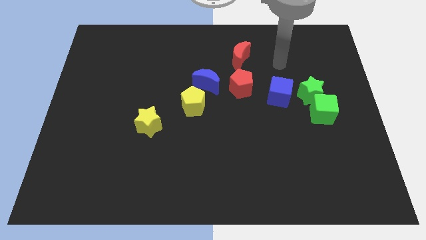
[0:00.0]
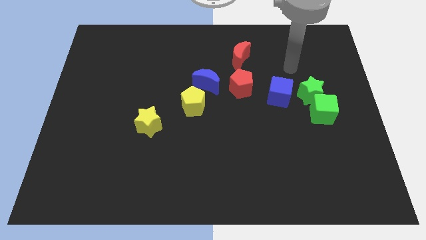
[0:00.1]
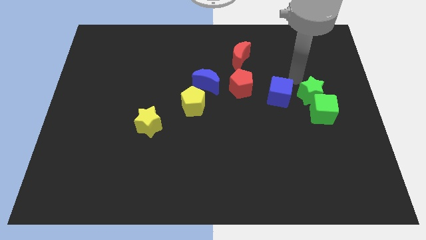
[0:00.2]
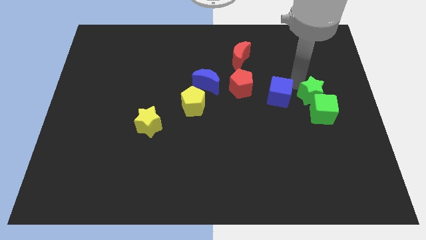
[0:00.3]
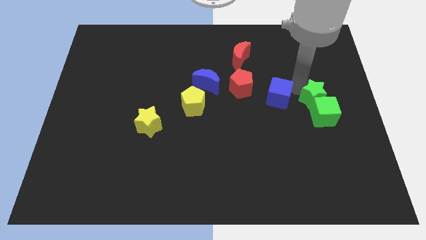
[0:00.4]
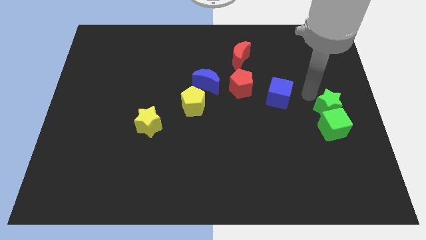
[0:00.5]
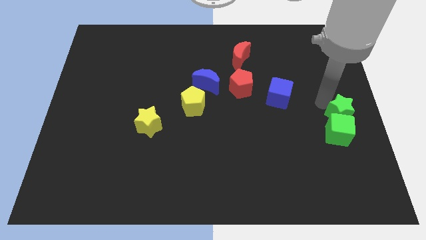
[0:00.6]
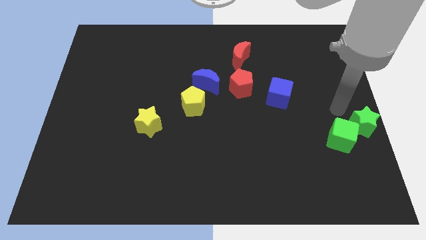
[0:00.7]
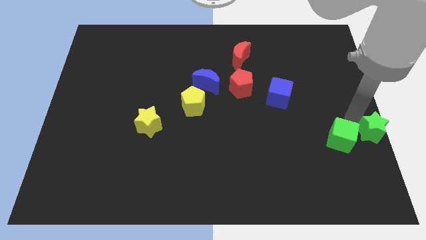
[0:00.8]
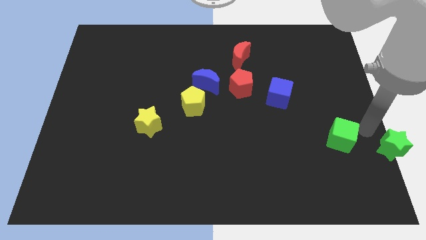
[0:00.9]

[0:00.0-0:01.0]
move the green cube away from the green star

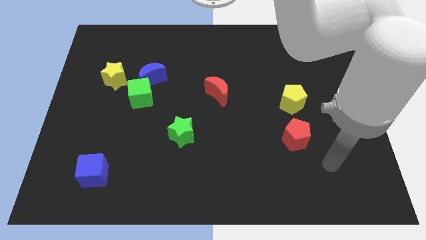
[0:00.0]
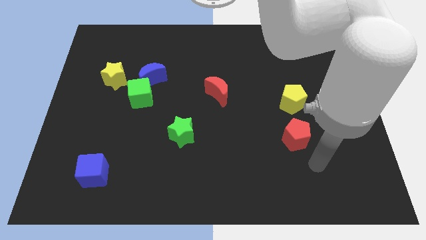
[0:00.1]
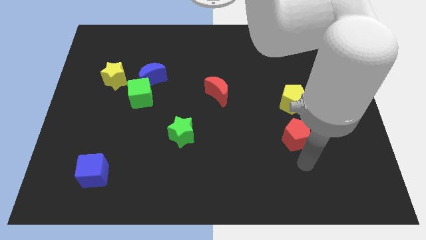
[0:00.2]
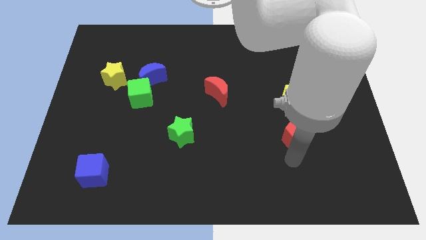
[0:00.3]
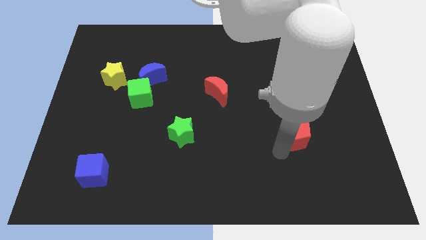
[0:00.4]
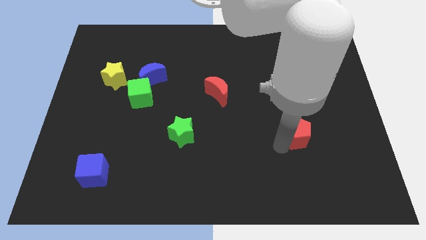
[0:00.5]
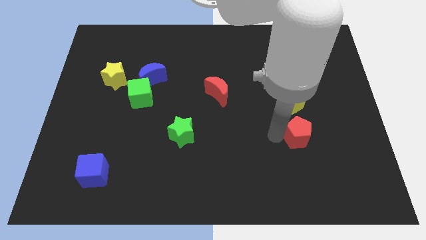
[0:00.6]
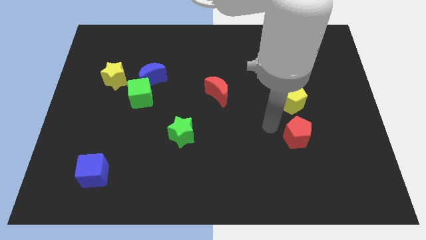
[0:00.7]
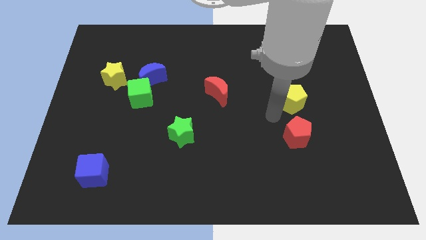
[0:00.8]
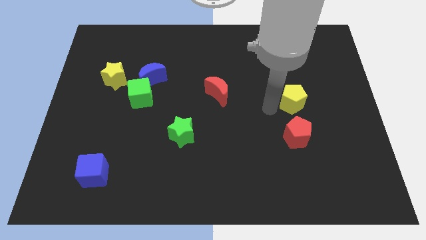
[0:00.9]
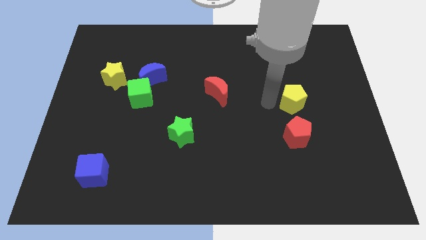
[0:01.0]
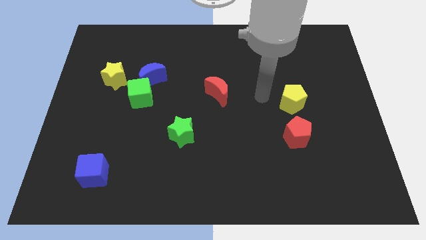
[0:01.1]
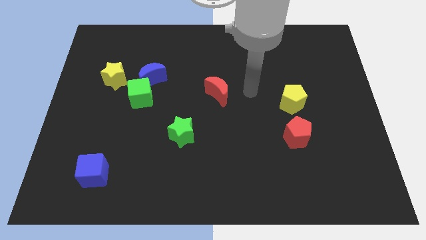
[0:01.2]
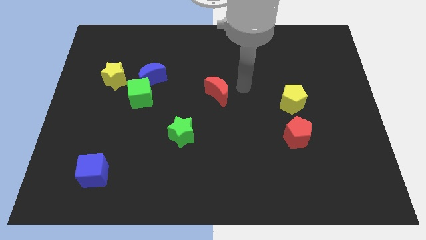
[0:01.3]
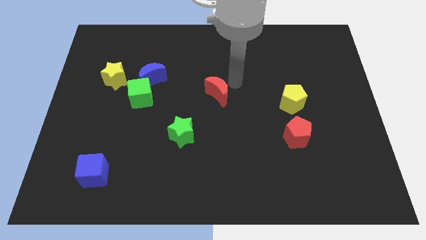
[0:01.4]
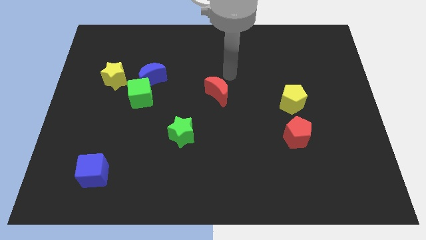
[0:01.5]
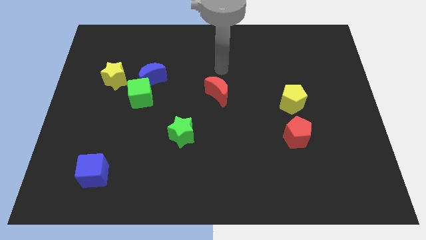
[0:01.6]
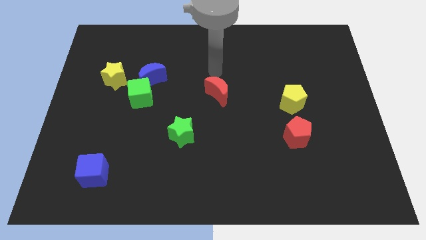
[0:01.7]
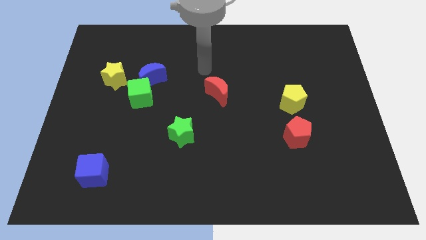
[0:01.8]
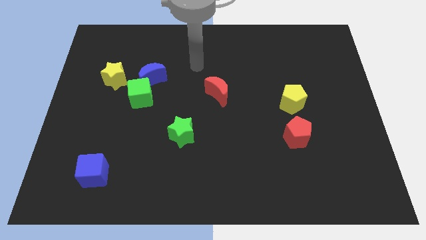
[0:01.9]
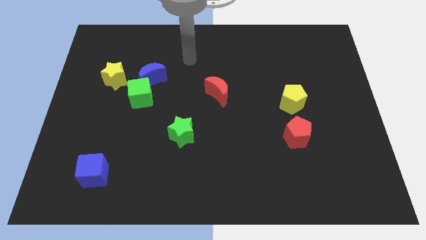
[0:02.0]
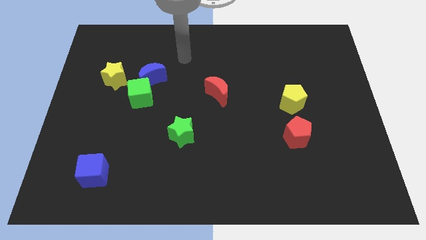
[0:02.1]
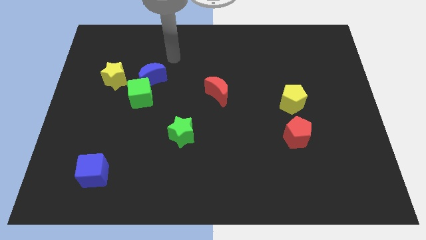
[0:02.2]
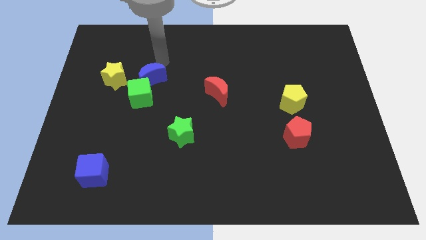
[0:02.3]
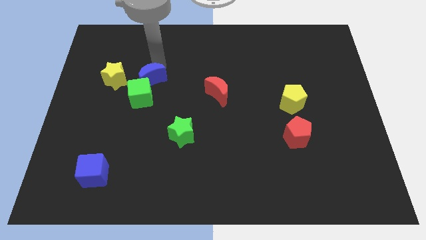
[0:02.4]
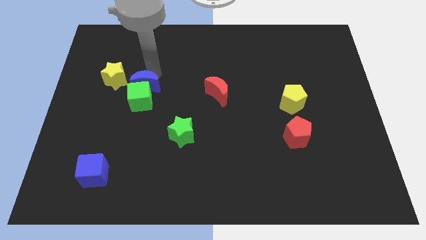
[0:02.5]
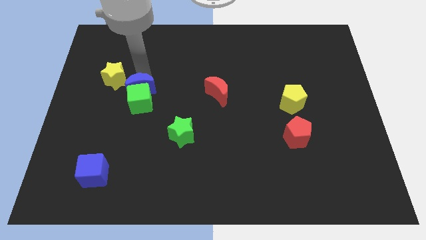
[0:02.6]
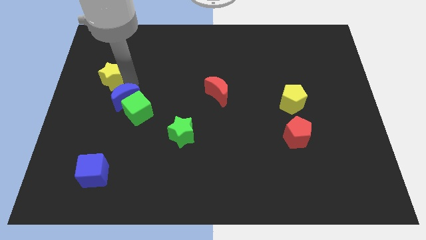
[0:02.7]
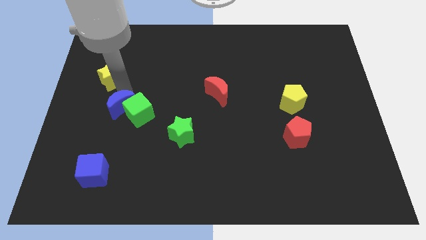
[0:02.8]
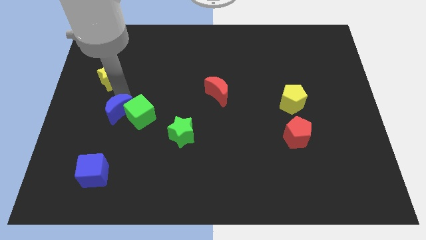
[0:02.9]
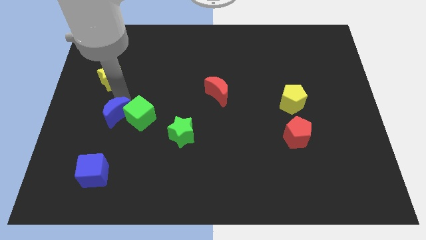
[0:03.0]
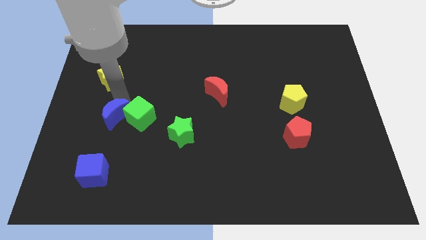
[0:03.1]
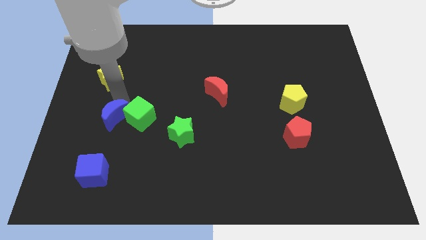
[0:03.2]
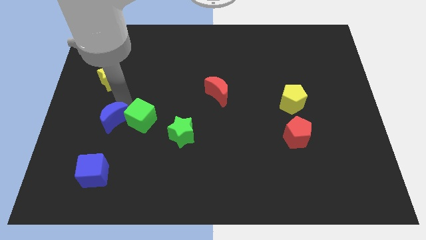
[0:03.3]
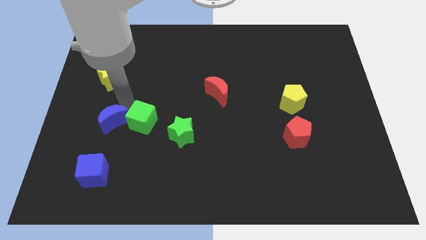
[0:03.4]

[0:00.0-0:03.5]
pull the green cube apart from the blue moon and yellow star

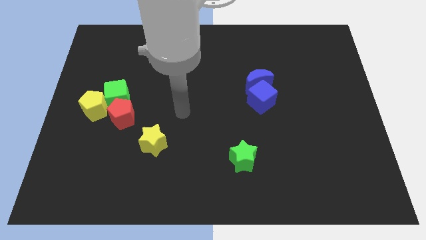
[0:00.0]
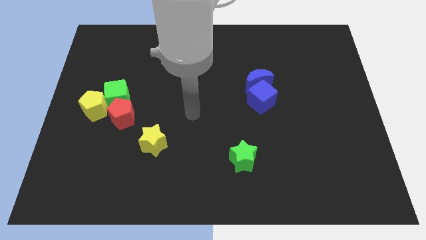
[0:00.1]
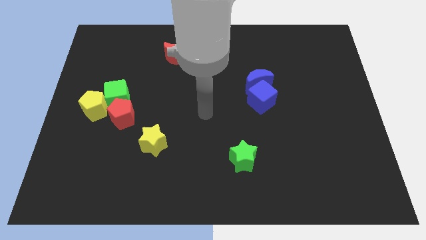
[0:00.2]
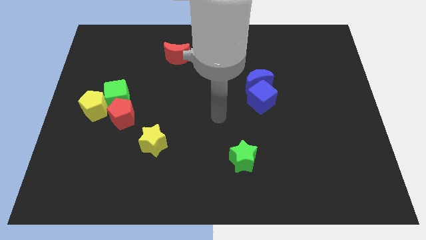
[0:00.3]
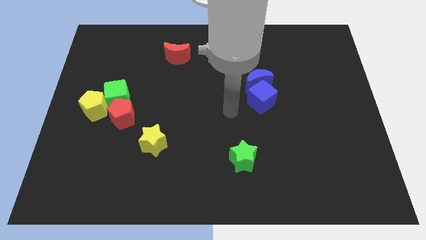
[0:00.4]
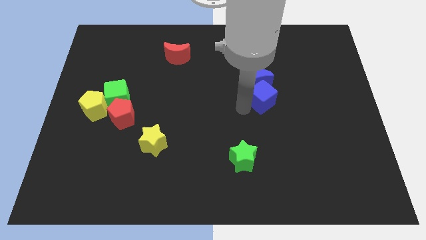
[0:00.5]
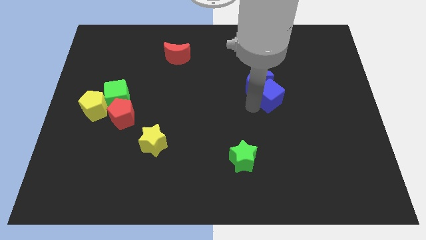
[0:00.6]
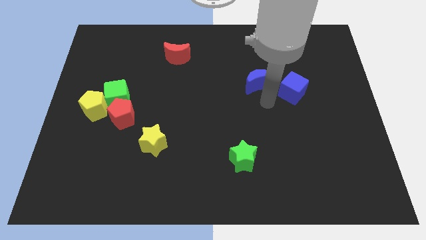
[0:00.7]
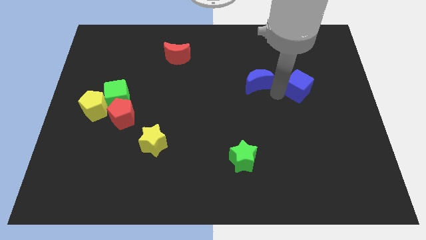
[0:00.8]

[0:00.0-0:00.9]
separate the blue moon from the blue cube

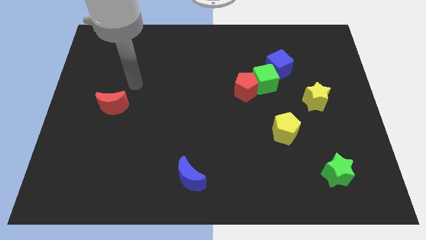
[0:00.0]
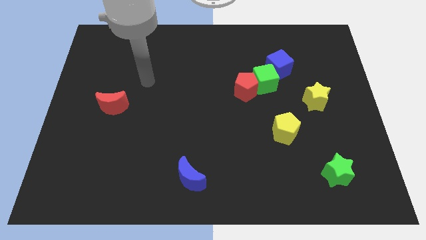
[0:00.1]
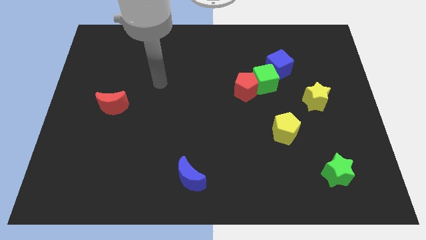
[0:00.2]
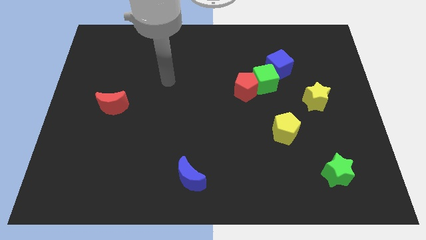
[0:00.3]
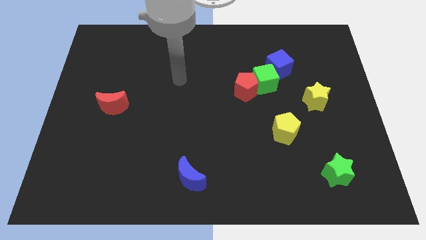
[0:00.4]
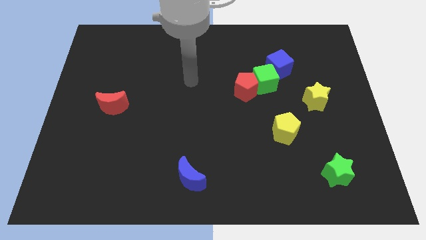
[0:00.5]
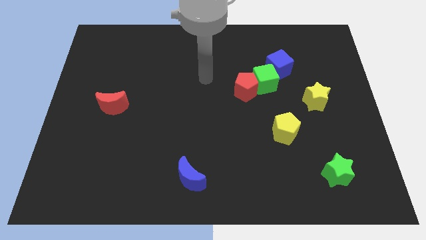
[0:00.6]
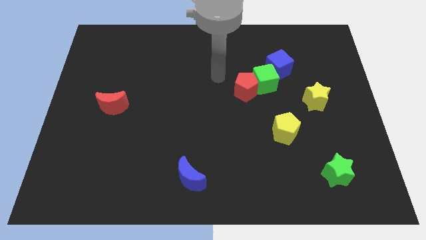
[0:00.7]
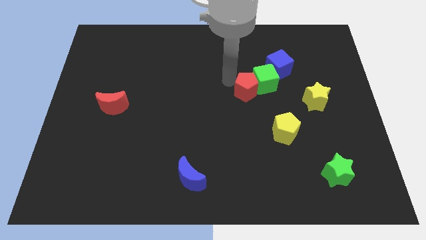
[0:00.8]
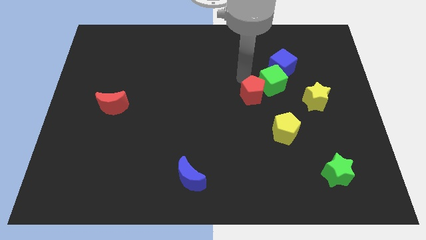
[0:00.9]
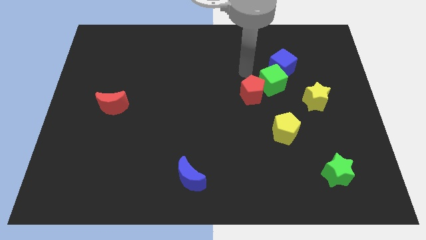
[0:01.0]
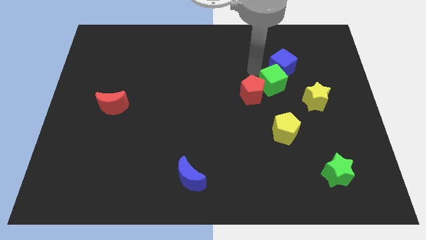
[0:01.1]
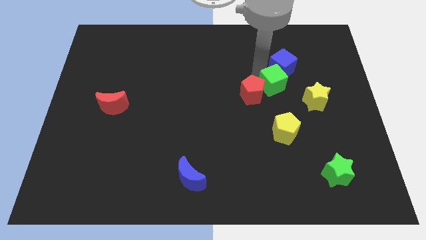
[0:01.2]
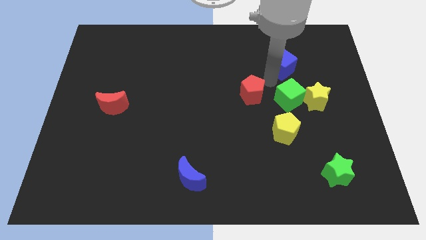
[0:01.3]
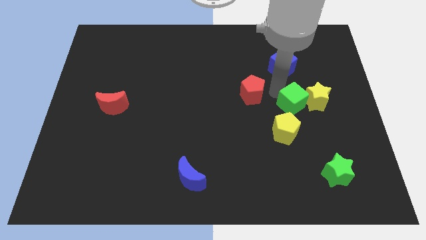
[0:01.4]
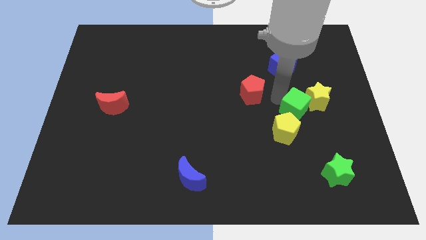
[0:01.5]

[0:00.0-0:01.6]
move the red pentagon away from the green cube

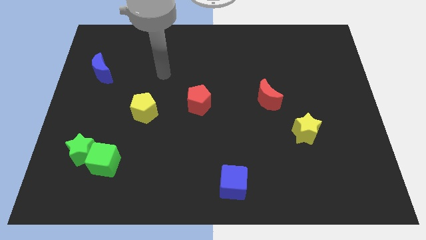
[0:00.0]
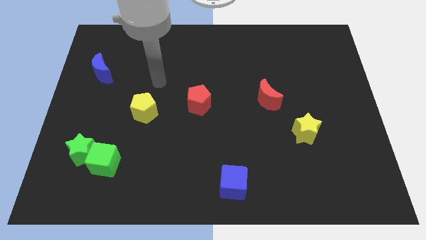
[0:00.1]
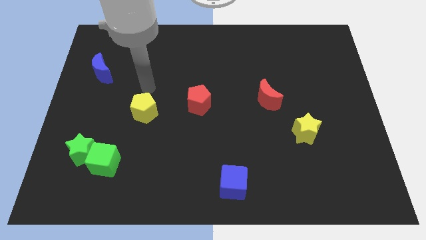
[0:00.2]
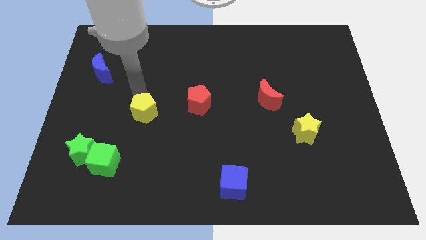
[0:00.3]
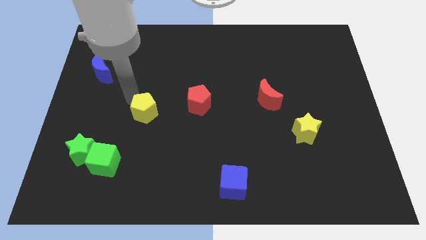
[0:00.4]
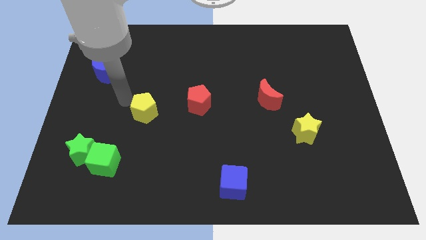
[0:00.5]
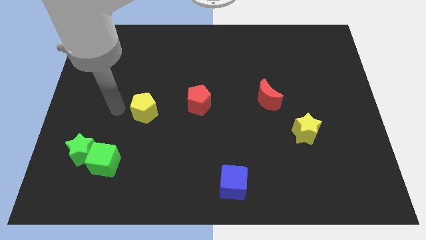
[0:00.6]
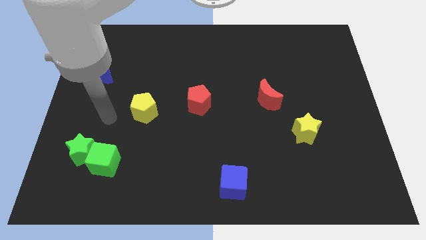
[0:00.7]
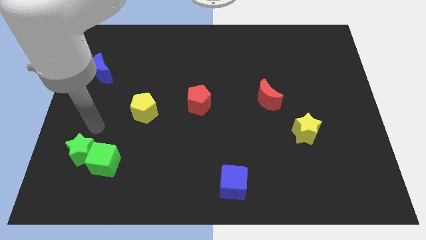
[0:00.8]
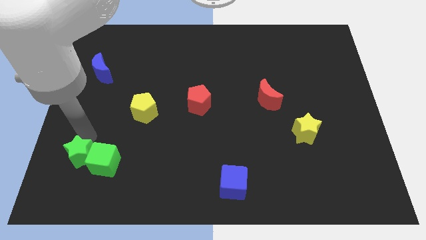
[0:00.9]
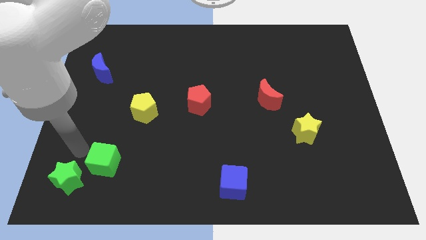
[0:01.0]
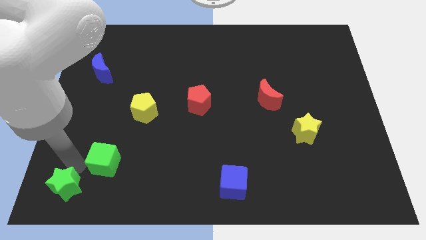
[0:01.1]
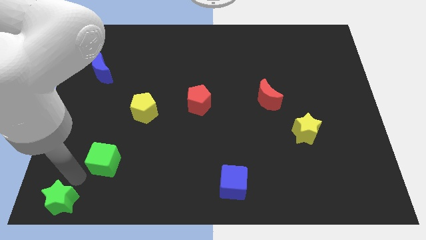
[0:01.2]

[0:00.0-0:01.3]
pull the green cube apart from the green star

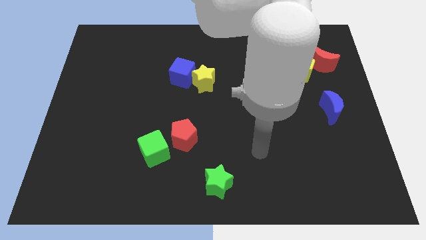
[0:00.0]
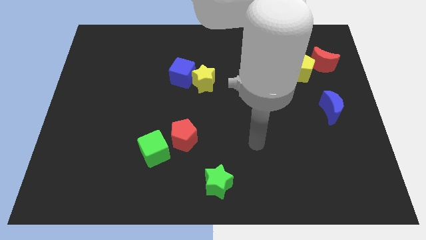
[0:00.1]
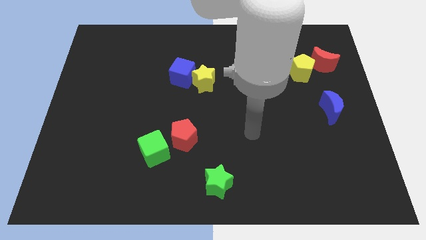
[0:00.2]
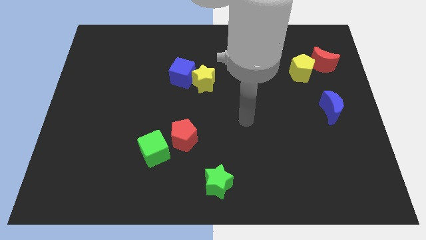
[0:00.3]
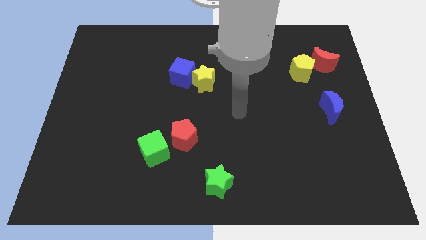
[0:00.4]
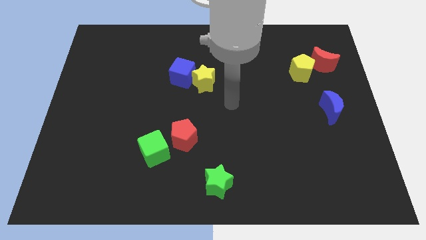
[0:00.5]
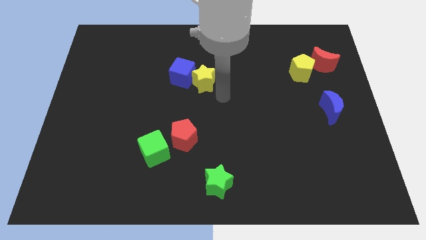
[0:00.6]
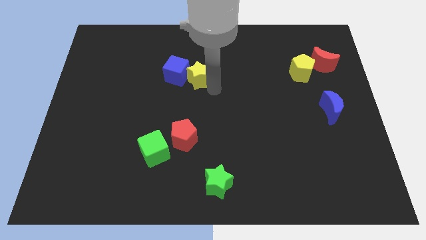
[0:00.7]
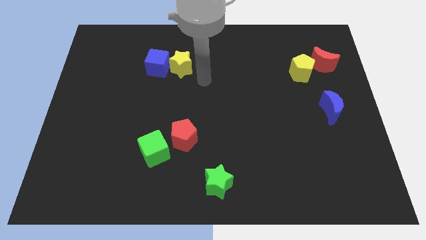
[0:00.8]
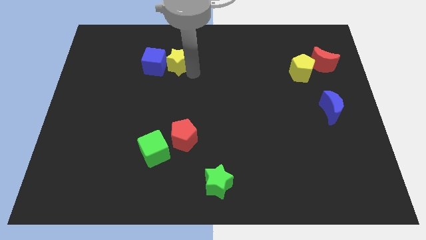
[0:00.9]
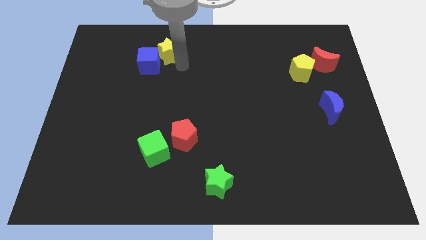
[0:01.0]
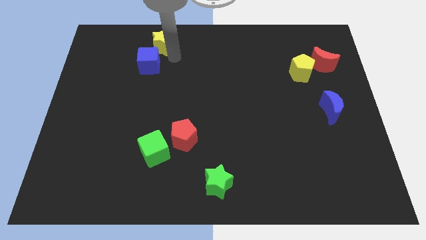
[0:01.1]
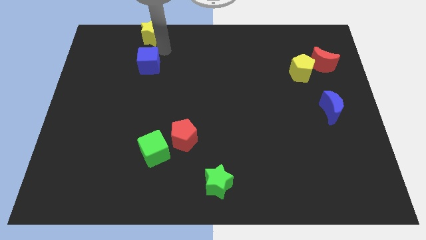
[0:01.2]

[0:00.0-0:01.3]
move the blue cube away from the yellow star
